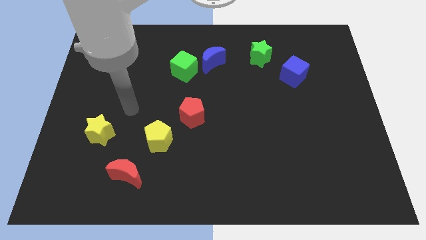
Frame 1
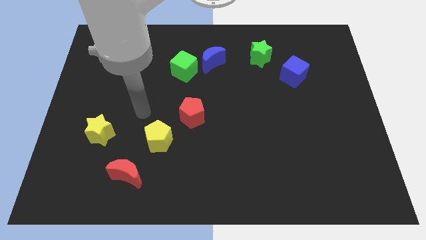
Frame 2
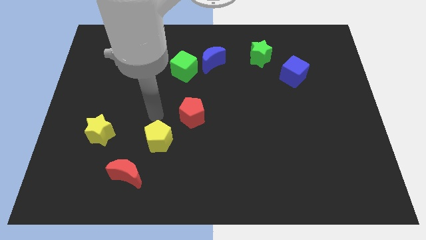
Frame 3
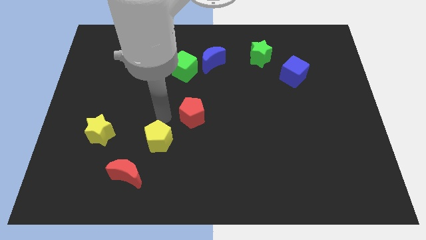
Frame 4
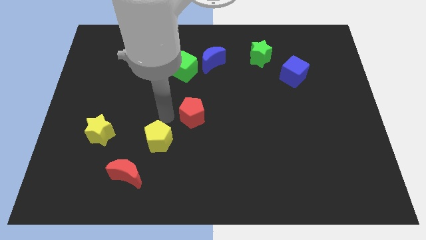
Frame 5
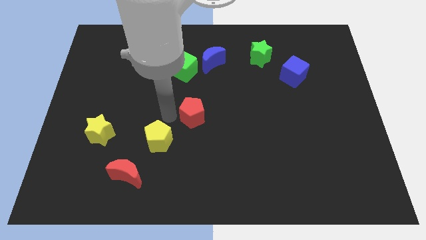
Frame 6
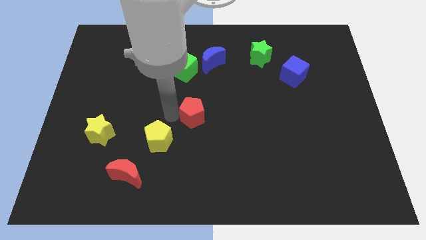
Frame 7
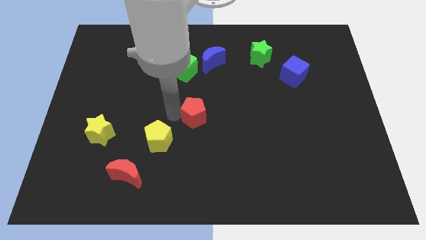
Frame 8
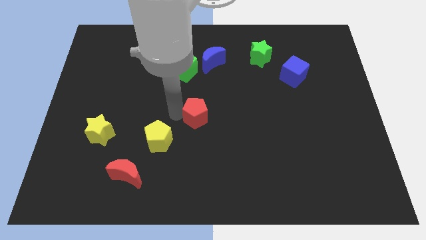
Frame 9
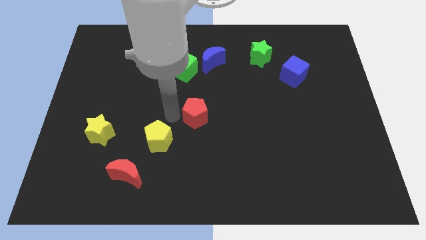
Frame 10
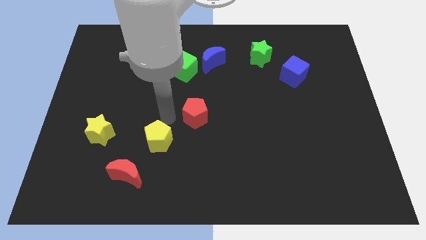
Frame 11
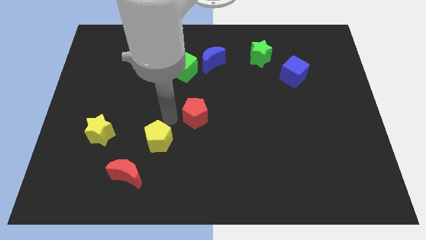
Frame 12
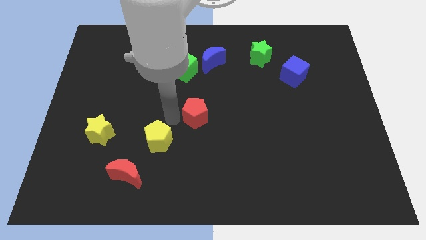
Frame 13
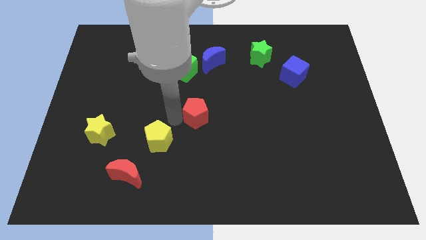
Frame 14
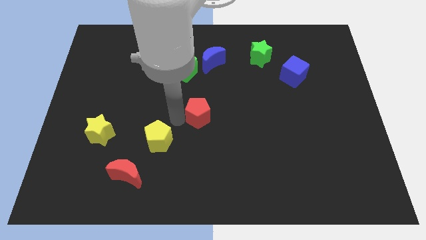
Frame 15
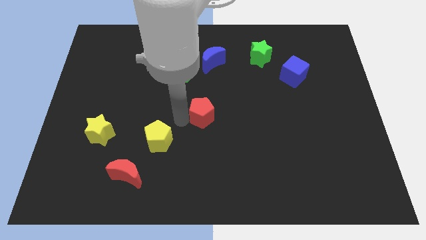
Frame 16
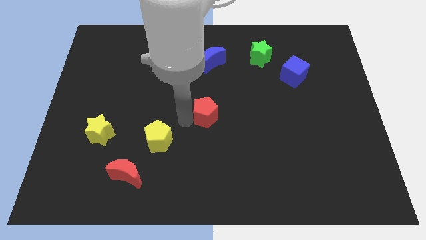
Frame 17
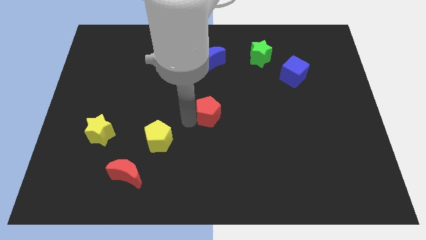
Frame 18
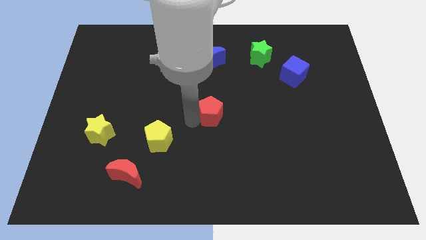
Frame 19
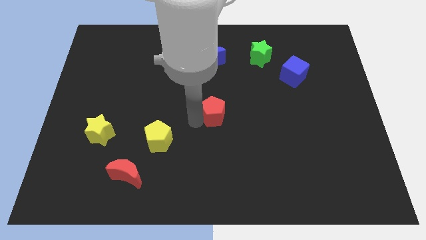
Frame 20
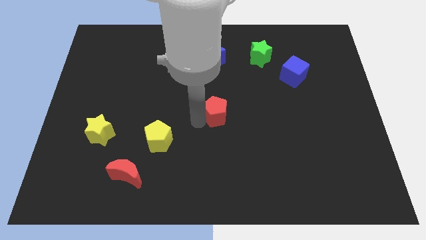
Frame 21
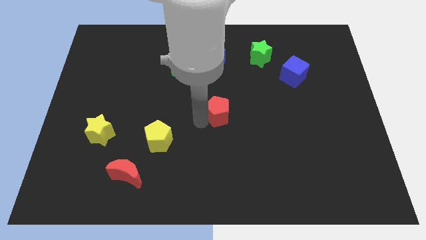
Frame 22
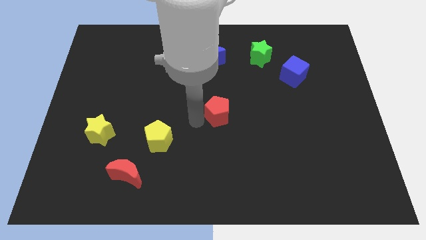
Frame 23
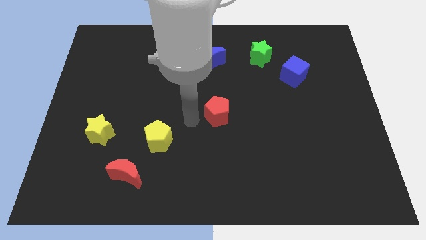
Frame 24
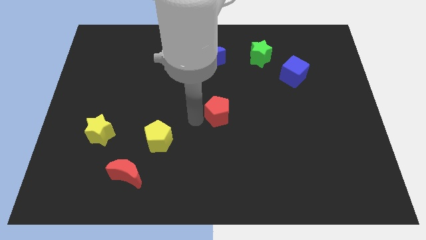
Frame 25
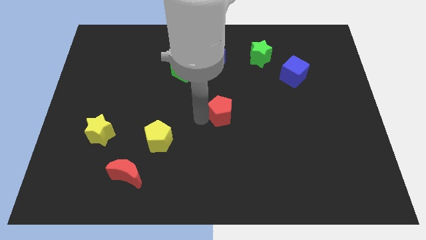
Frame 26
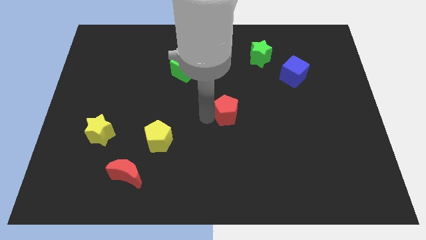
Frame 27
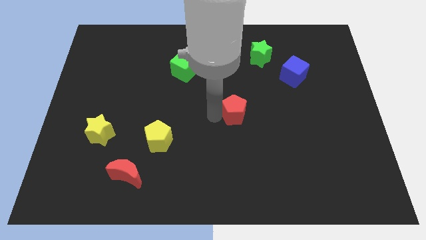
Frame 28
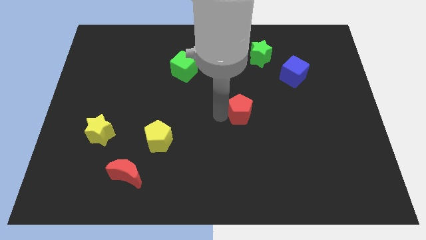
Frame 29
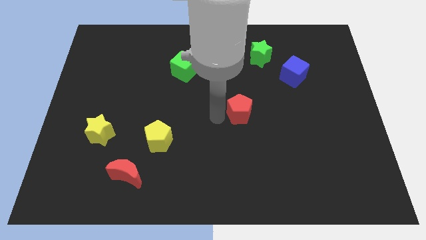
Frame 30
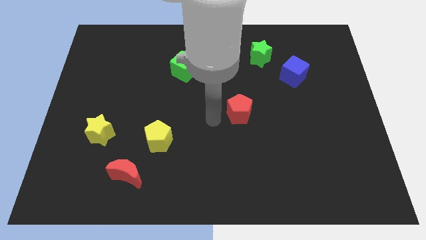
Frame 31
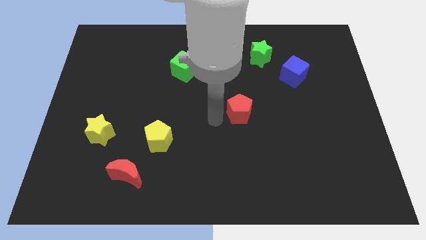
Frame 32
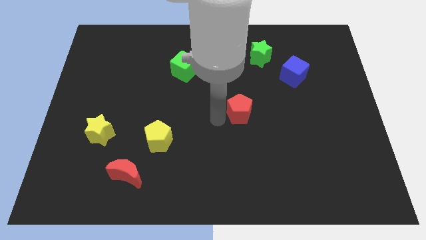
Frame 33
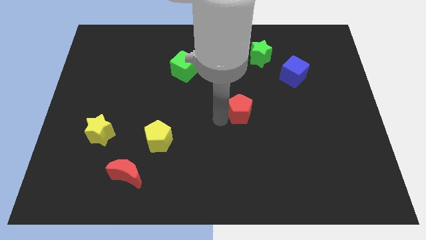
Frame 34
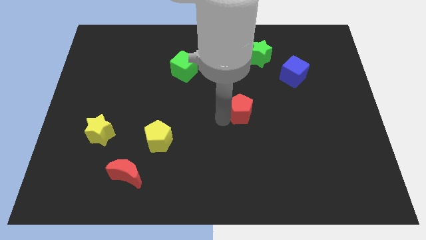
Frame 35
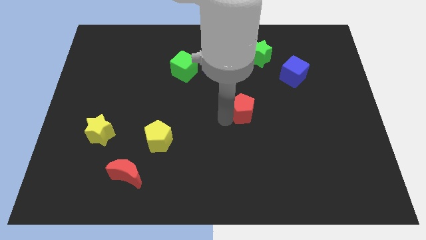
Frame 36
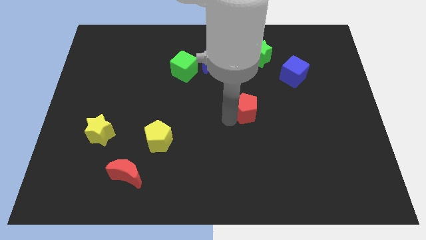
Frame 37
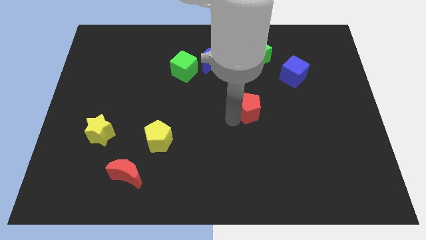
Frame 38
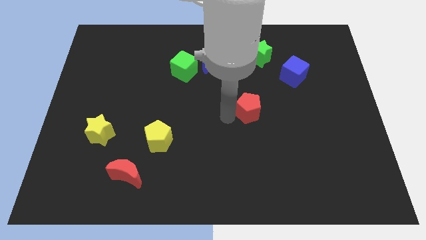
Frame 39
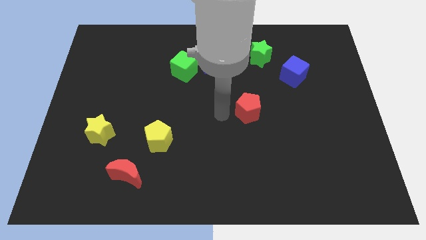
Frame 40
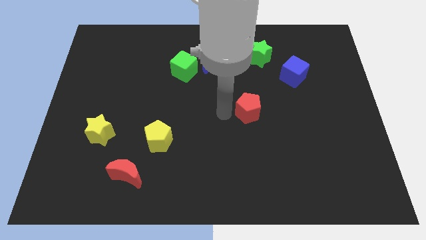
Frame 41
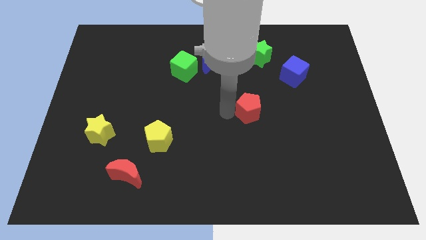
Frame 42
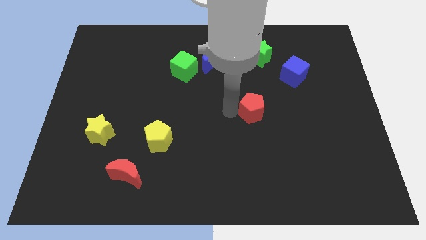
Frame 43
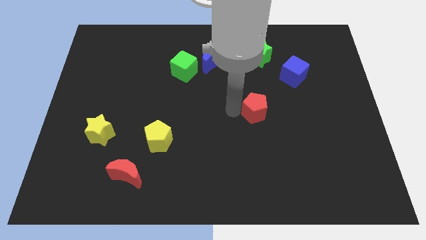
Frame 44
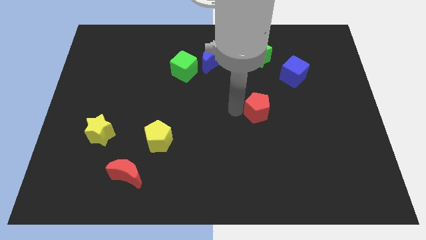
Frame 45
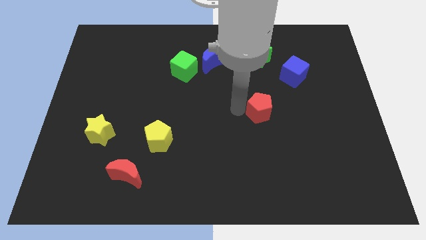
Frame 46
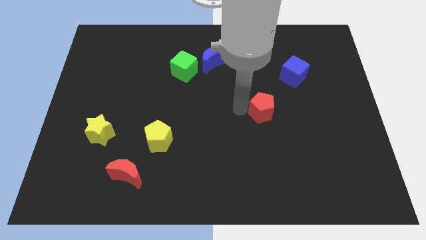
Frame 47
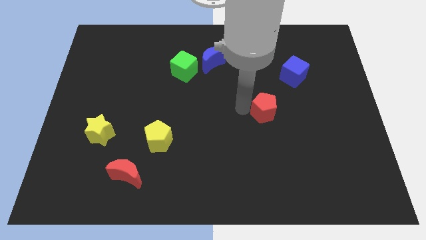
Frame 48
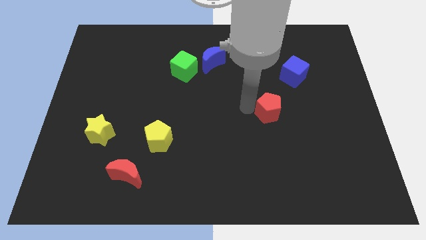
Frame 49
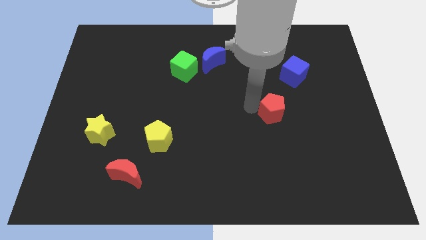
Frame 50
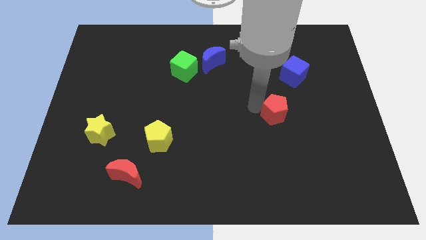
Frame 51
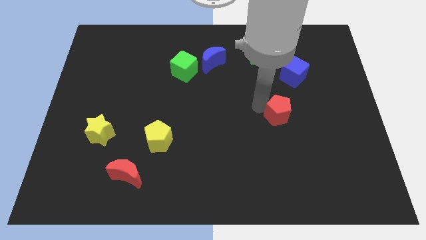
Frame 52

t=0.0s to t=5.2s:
push the red pentagon right

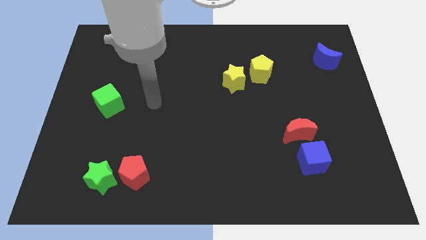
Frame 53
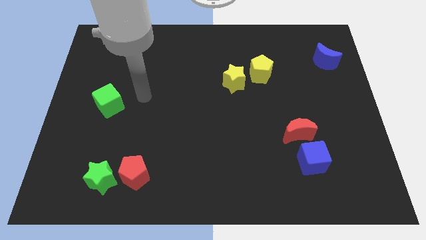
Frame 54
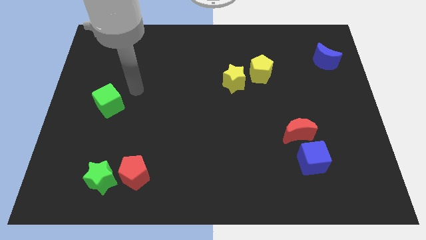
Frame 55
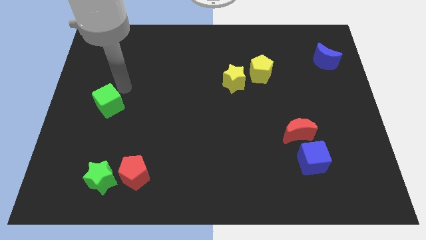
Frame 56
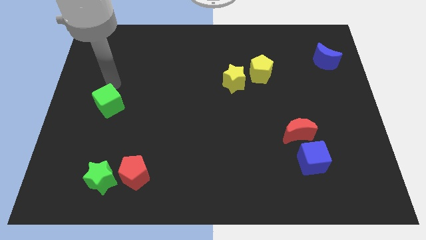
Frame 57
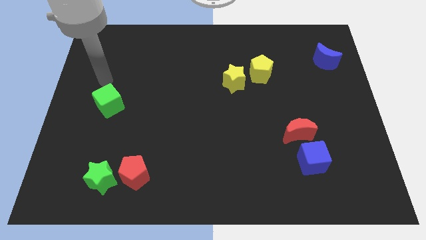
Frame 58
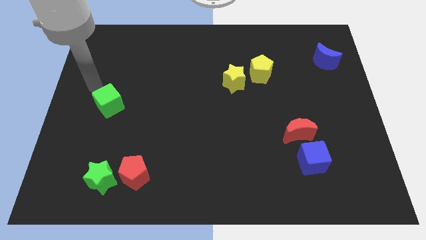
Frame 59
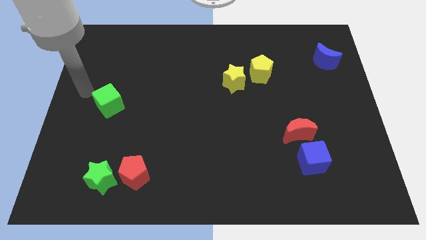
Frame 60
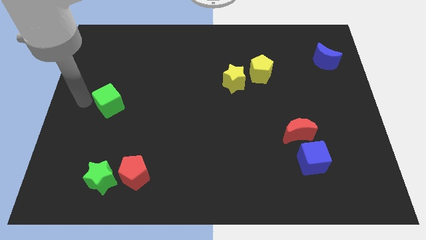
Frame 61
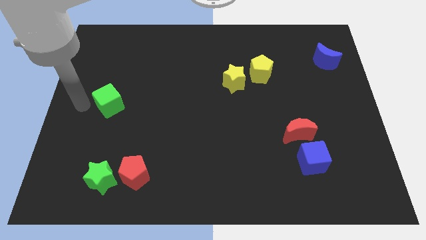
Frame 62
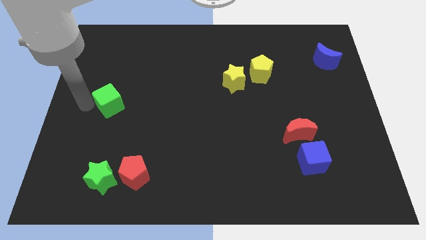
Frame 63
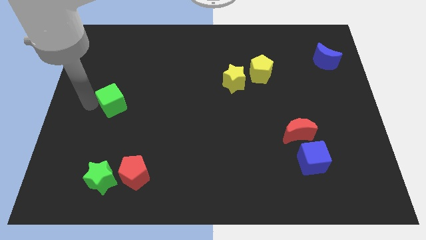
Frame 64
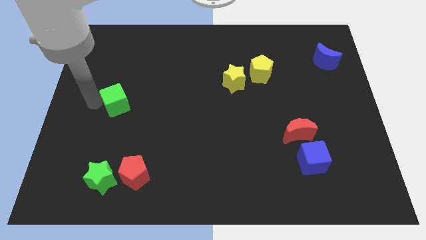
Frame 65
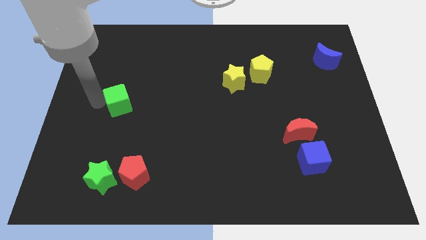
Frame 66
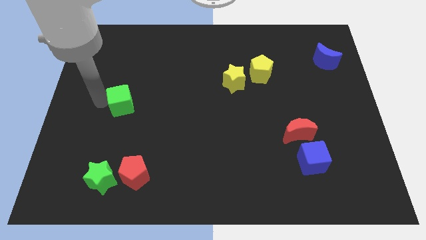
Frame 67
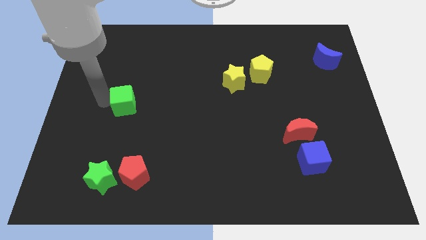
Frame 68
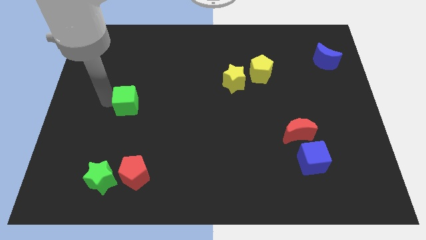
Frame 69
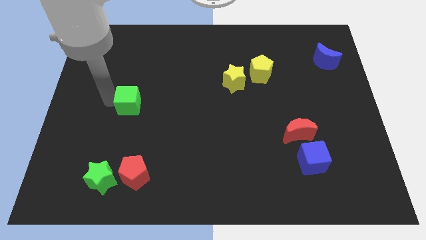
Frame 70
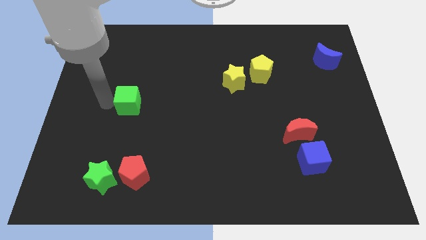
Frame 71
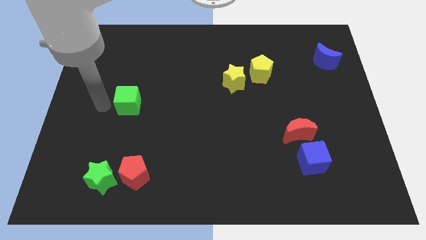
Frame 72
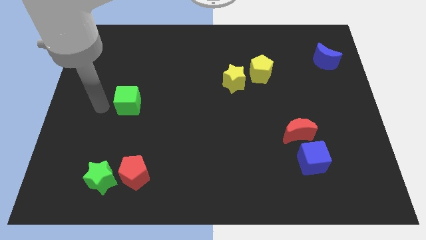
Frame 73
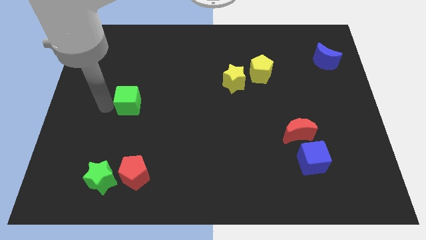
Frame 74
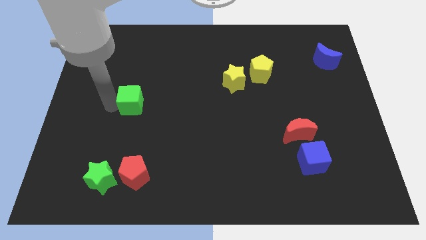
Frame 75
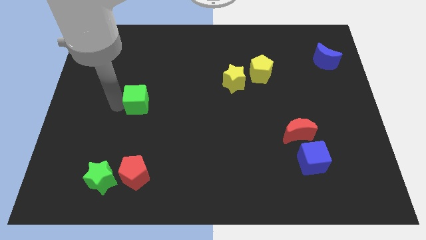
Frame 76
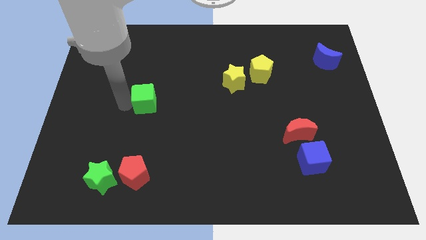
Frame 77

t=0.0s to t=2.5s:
push the green cube somewhat right
